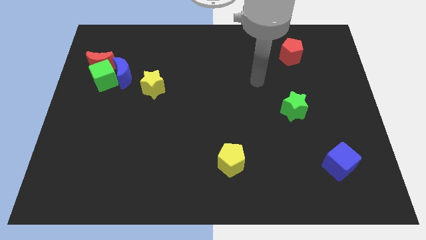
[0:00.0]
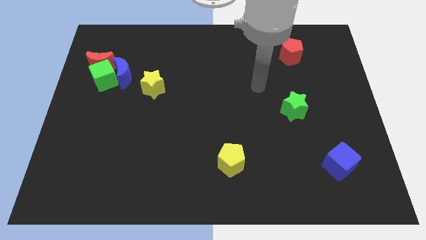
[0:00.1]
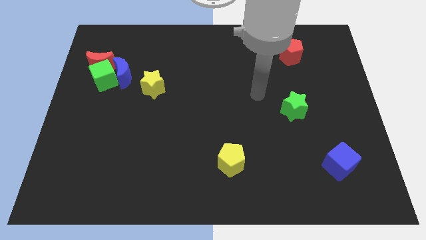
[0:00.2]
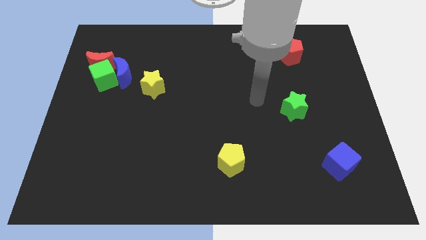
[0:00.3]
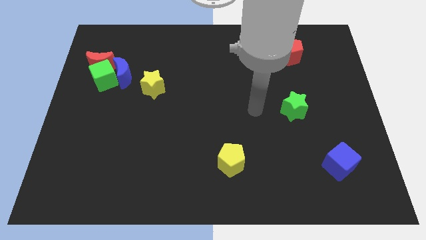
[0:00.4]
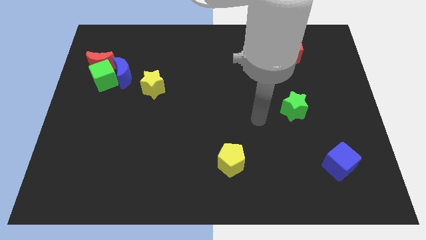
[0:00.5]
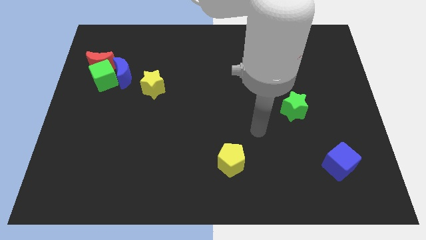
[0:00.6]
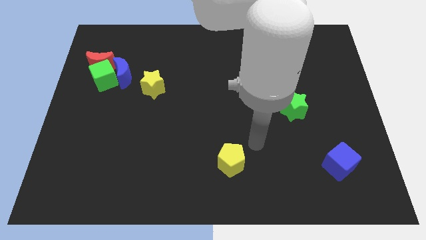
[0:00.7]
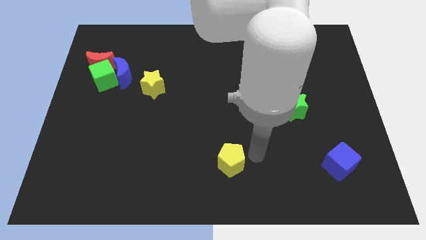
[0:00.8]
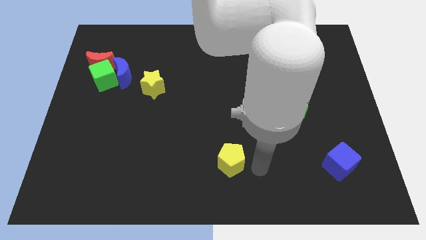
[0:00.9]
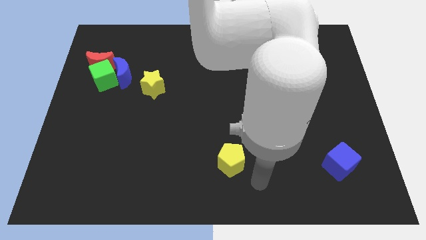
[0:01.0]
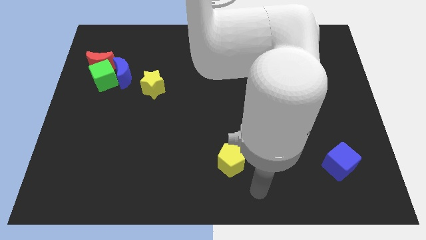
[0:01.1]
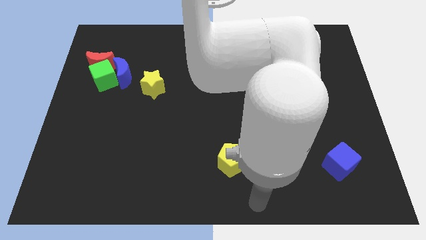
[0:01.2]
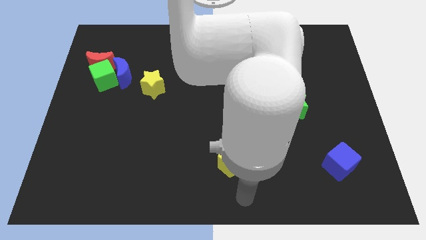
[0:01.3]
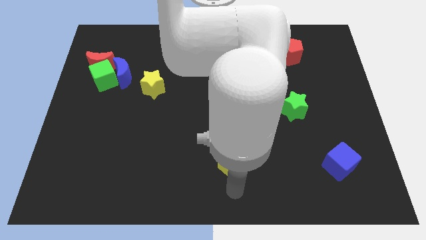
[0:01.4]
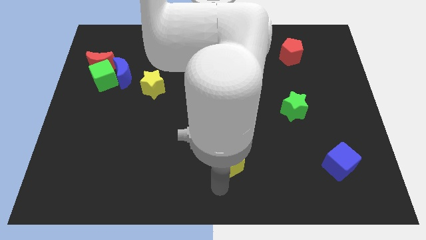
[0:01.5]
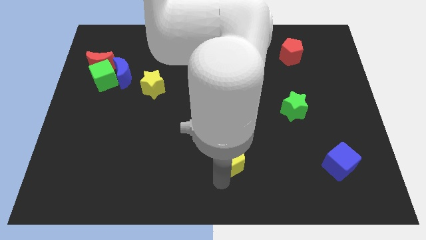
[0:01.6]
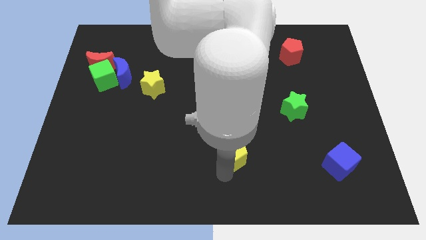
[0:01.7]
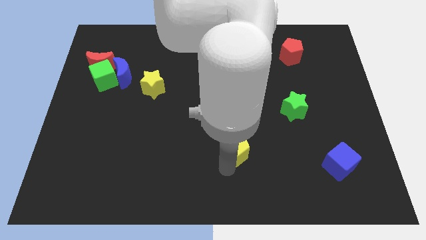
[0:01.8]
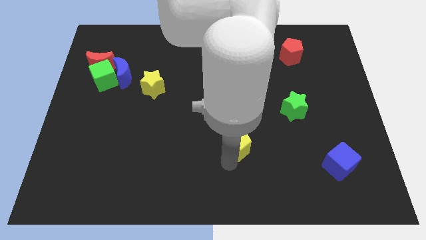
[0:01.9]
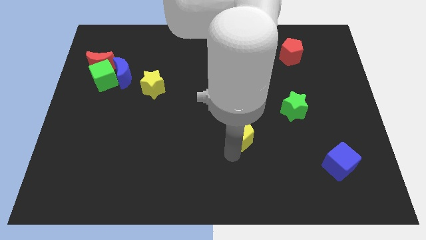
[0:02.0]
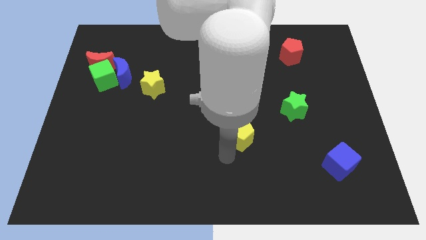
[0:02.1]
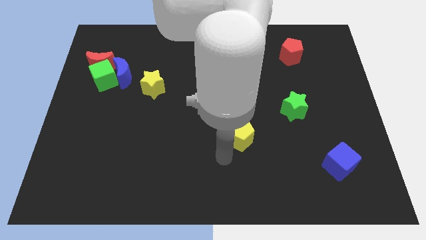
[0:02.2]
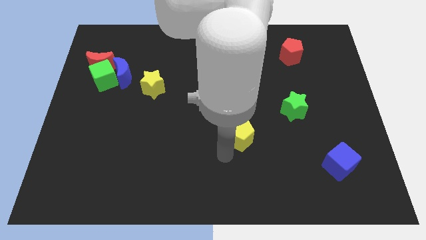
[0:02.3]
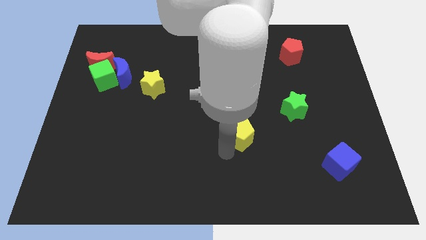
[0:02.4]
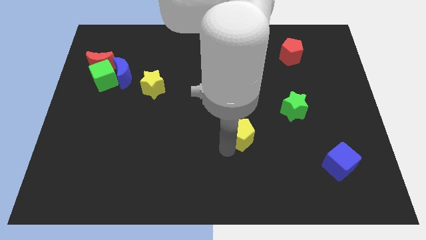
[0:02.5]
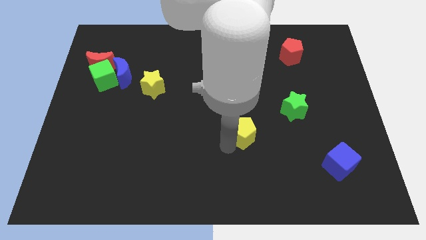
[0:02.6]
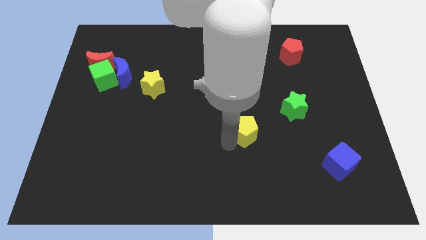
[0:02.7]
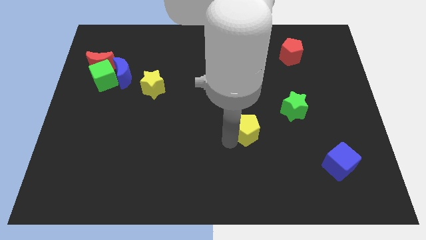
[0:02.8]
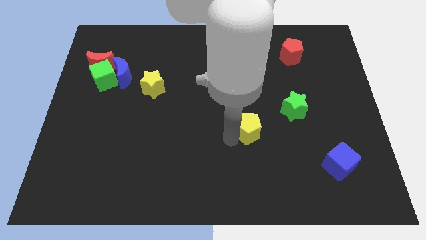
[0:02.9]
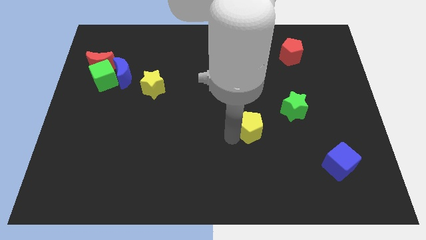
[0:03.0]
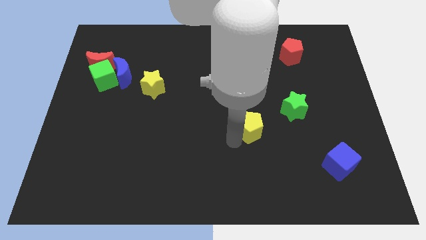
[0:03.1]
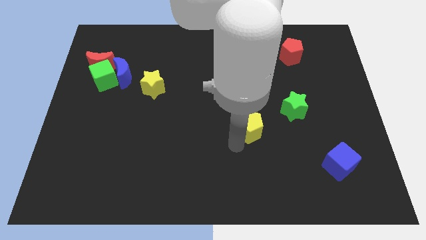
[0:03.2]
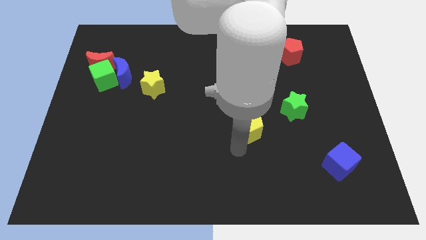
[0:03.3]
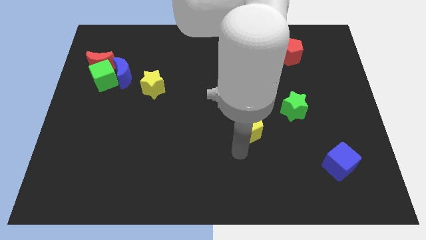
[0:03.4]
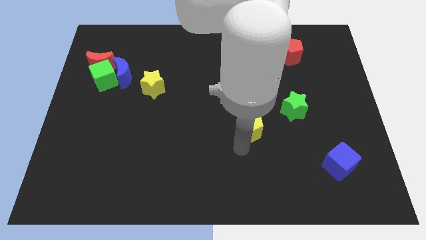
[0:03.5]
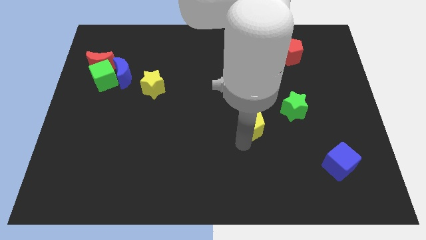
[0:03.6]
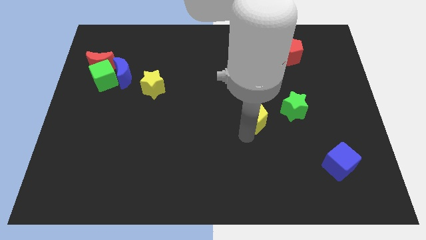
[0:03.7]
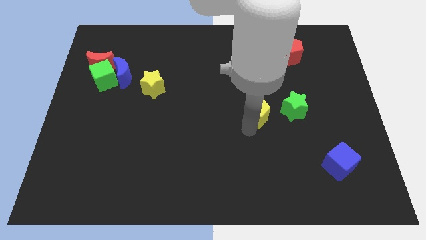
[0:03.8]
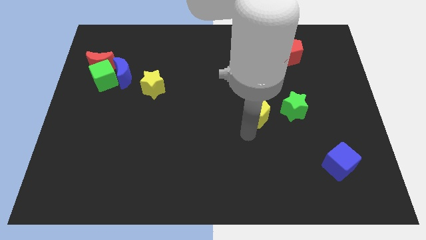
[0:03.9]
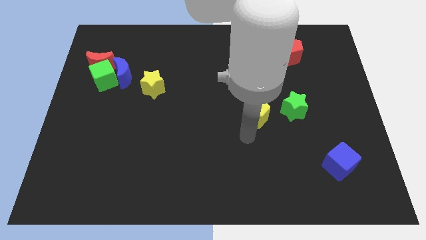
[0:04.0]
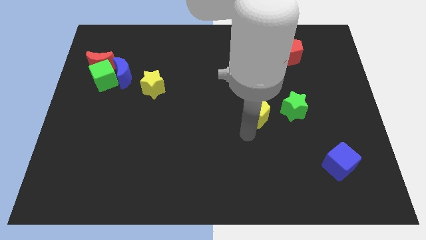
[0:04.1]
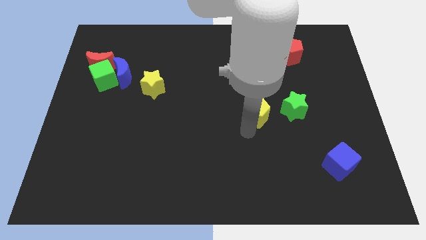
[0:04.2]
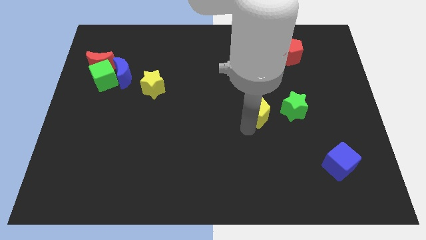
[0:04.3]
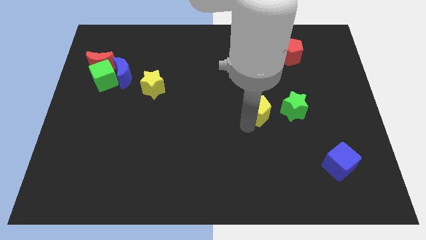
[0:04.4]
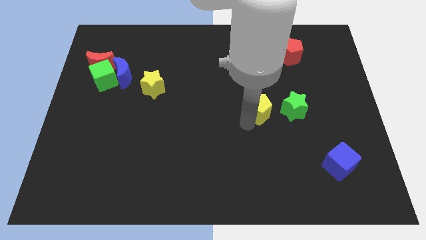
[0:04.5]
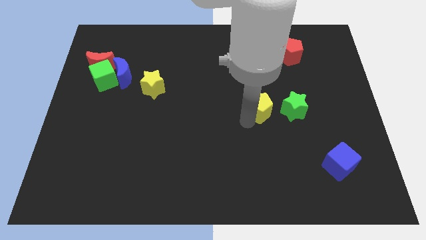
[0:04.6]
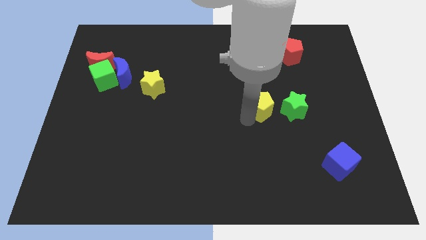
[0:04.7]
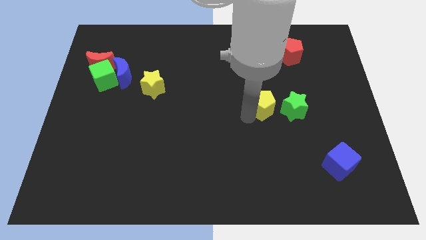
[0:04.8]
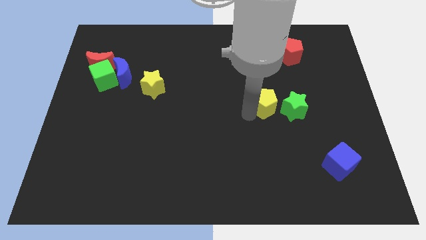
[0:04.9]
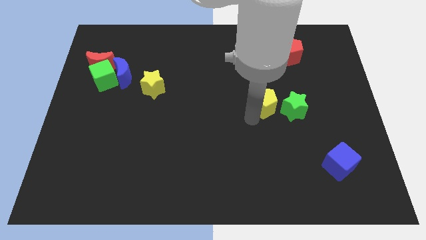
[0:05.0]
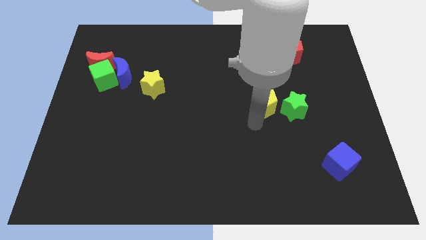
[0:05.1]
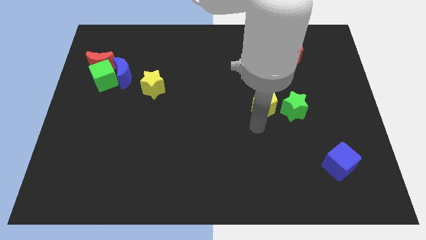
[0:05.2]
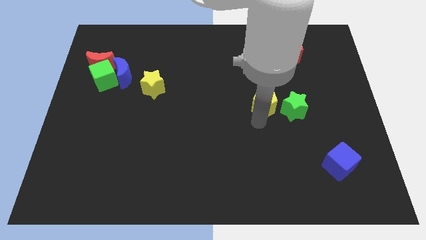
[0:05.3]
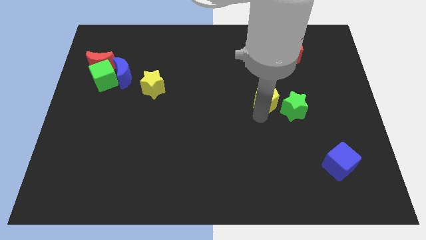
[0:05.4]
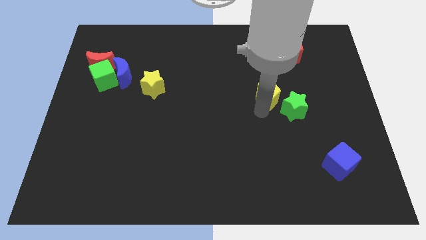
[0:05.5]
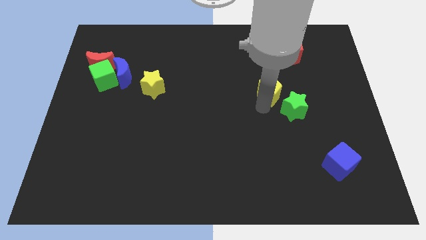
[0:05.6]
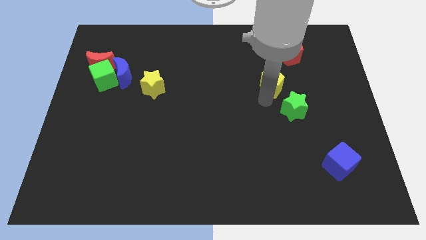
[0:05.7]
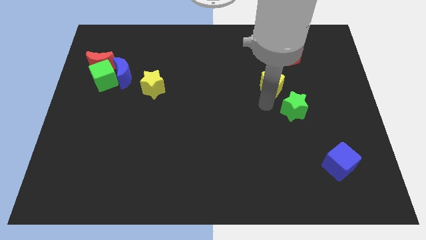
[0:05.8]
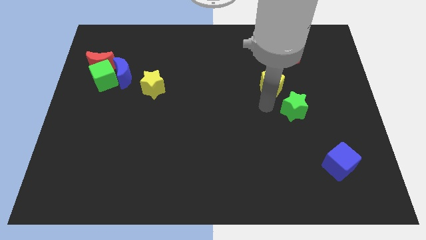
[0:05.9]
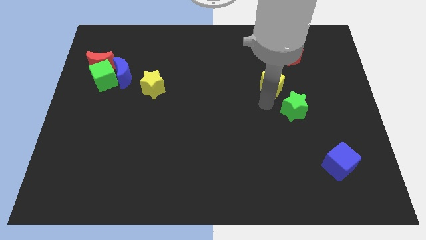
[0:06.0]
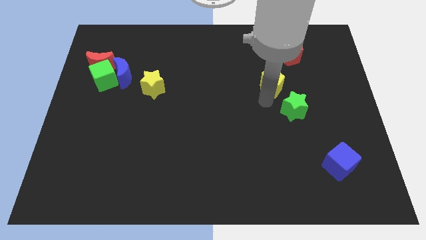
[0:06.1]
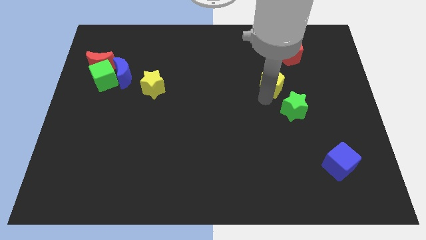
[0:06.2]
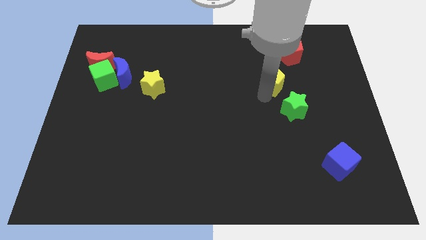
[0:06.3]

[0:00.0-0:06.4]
slide the yellow pentagon to the bottom left side of the red pentagon
